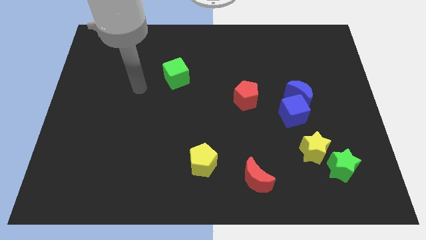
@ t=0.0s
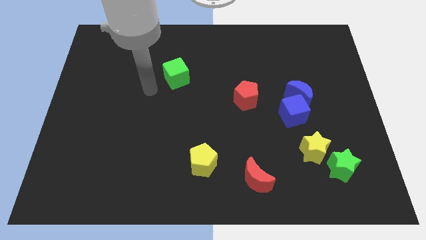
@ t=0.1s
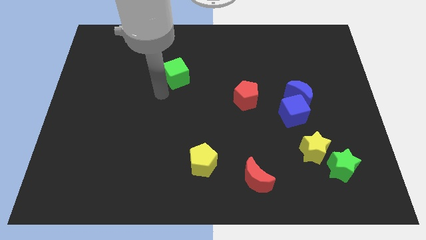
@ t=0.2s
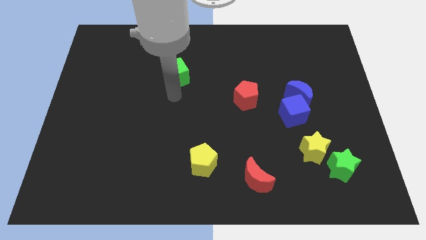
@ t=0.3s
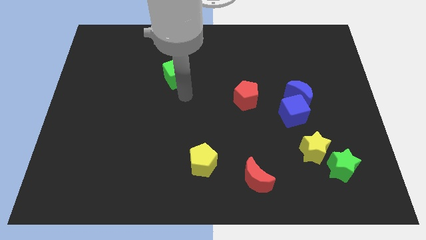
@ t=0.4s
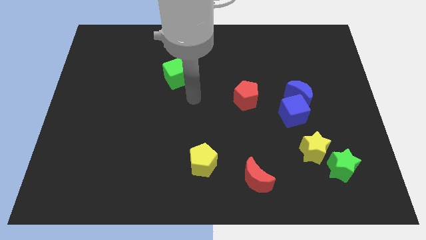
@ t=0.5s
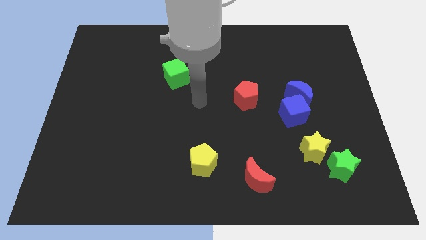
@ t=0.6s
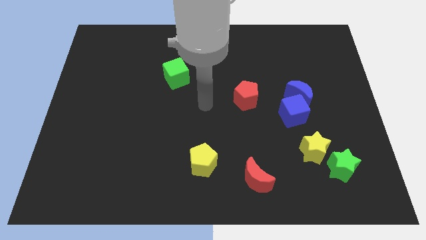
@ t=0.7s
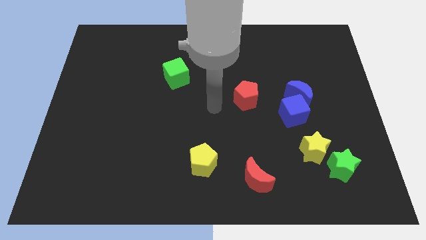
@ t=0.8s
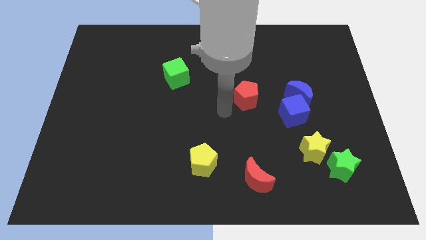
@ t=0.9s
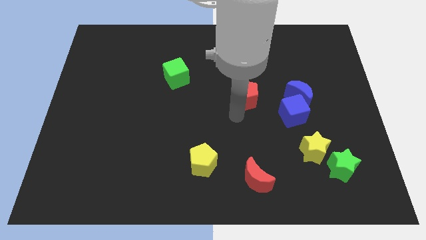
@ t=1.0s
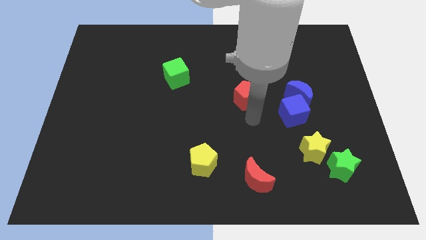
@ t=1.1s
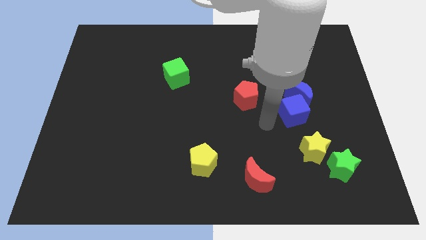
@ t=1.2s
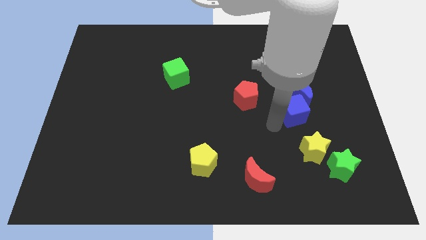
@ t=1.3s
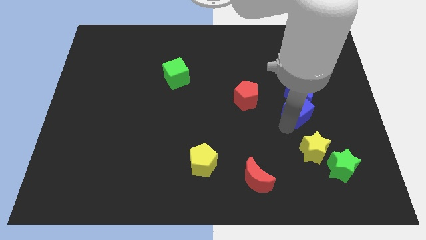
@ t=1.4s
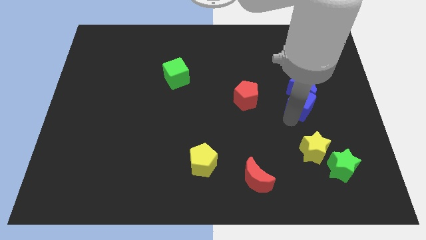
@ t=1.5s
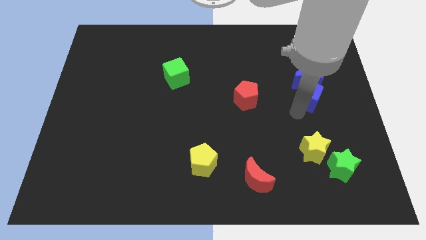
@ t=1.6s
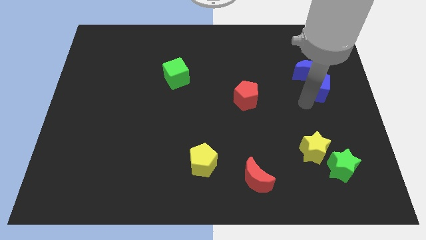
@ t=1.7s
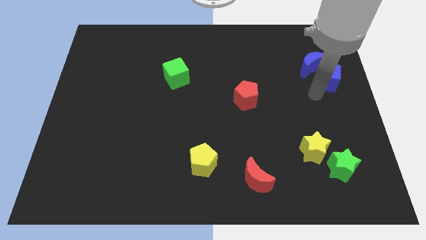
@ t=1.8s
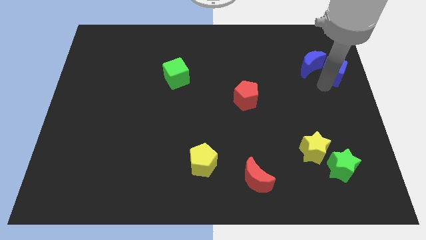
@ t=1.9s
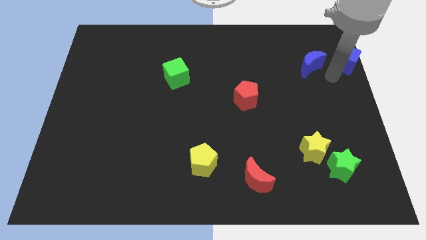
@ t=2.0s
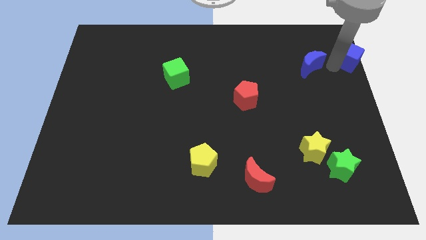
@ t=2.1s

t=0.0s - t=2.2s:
pull the blue moon apart from the blue cube

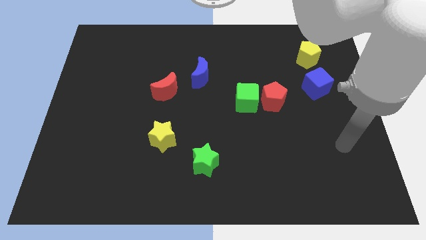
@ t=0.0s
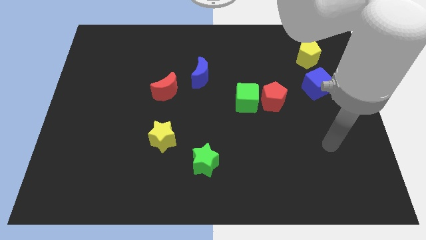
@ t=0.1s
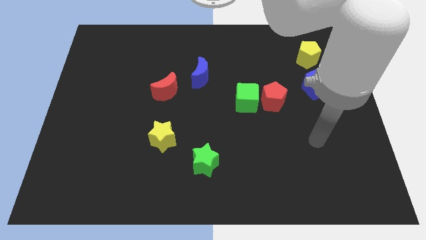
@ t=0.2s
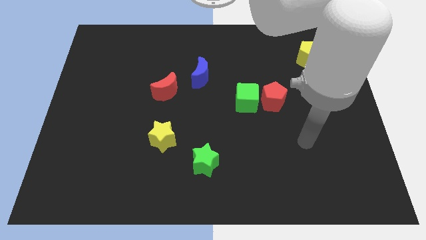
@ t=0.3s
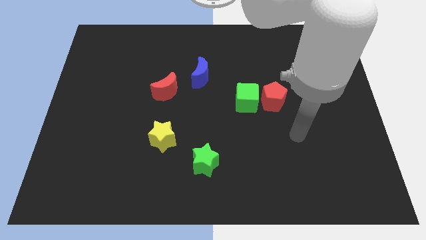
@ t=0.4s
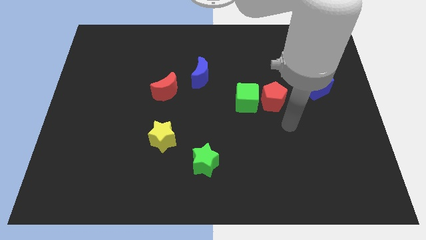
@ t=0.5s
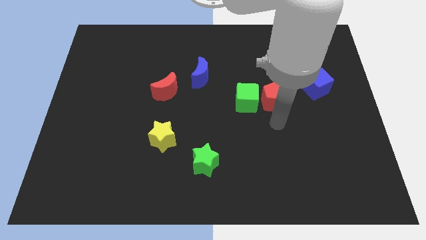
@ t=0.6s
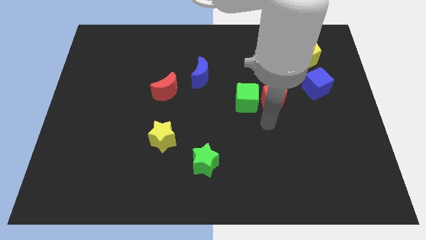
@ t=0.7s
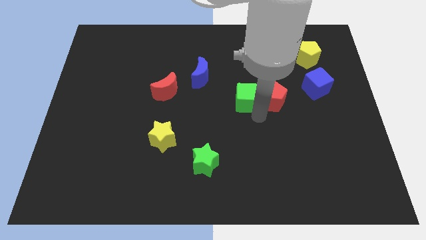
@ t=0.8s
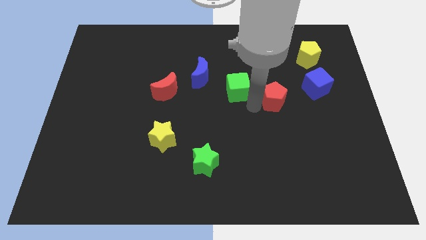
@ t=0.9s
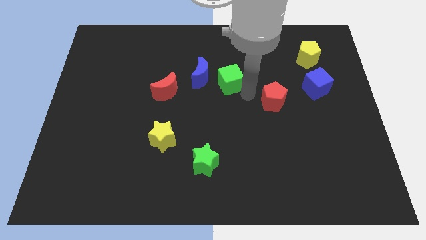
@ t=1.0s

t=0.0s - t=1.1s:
move the red pentagon away from the green cube

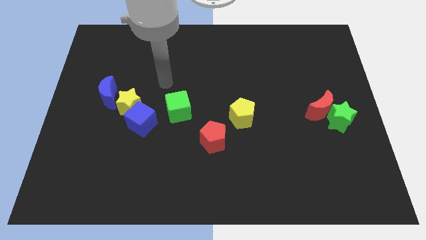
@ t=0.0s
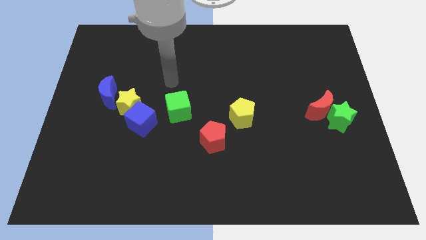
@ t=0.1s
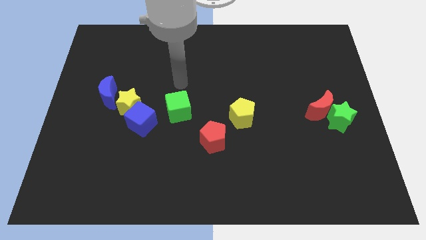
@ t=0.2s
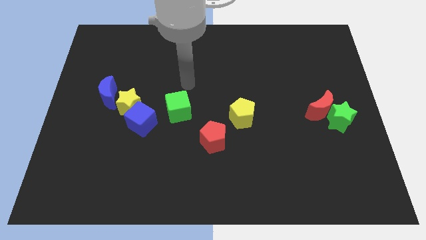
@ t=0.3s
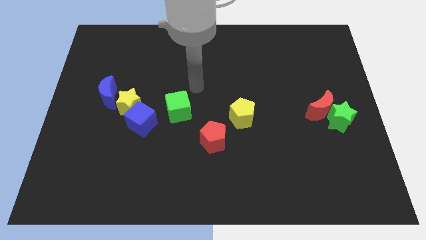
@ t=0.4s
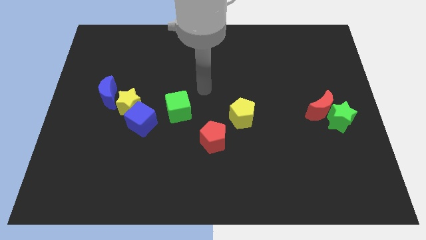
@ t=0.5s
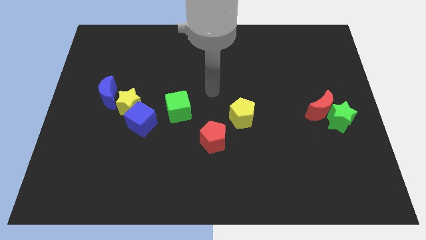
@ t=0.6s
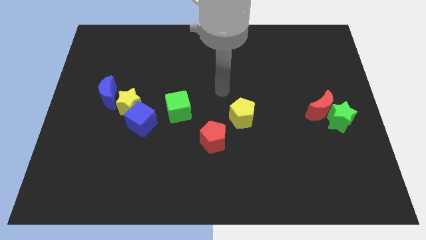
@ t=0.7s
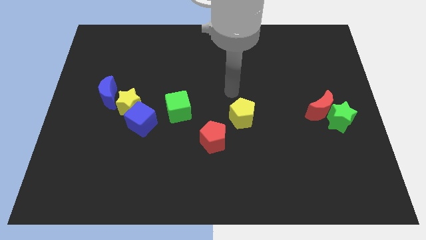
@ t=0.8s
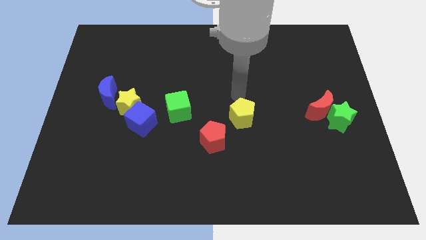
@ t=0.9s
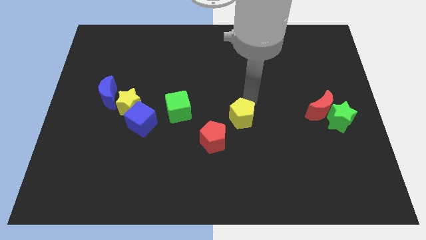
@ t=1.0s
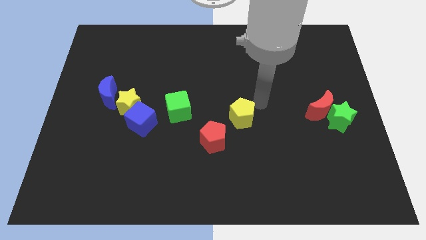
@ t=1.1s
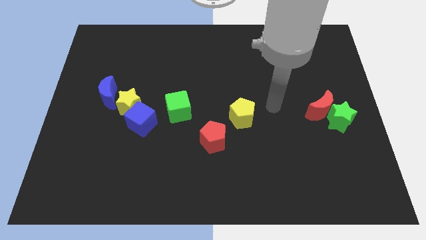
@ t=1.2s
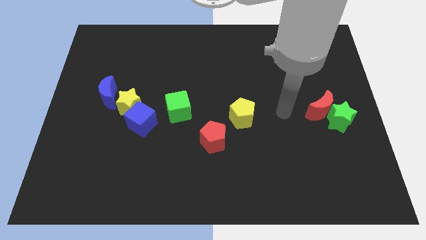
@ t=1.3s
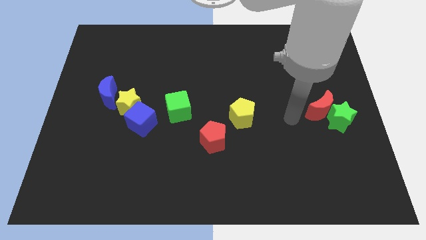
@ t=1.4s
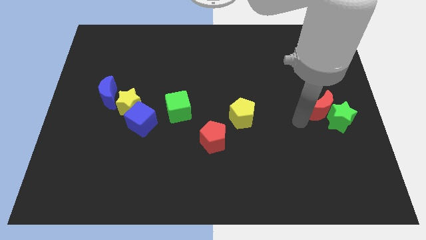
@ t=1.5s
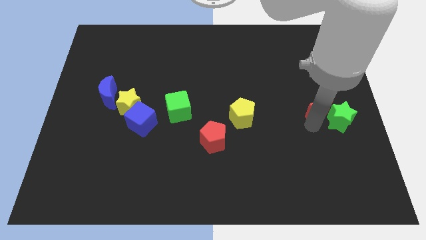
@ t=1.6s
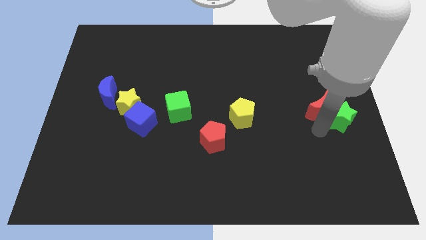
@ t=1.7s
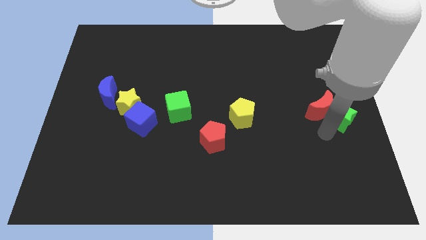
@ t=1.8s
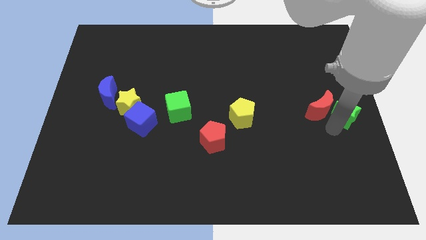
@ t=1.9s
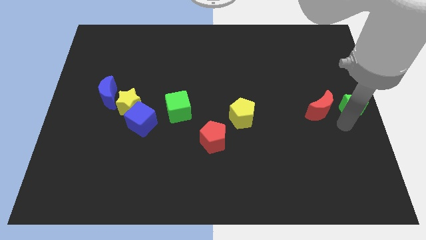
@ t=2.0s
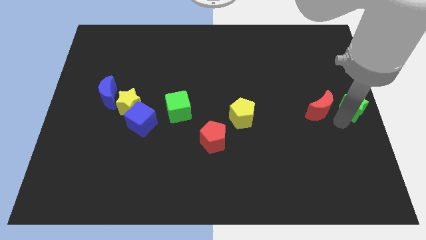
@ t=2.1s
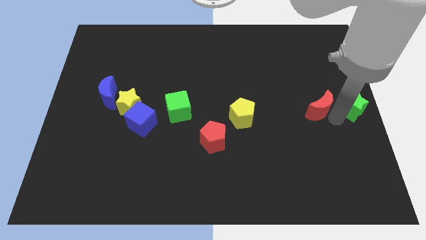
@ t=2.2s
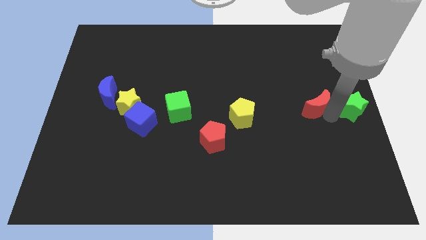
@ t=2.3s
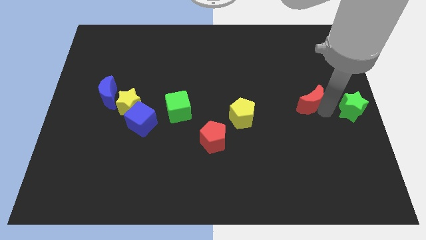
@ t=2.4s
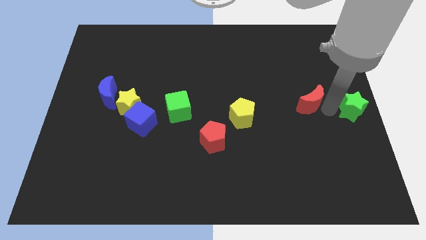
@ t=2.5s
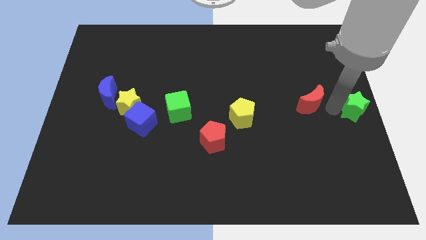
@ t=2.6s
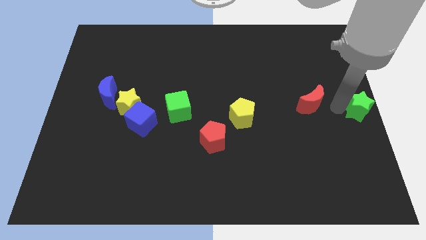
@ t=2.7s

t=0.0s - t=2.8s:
separate the red moon from the green star

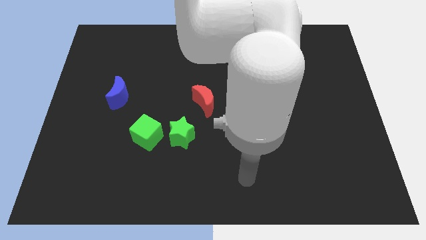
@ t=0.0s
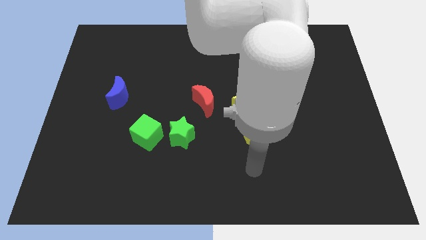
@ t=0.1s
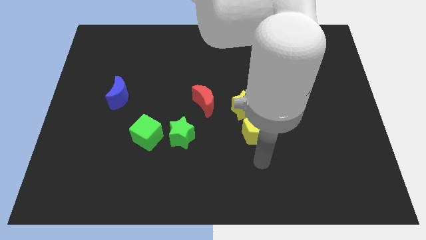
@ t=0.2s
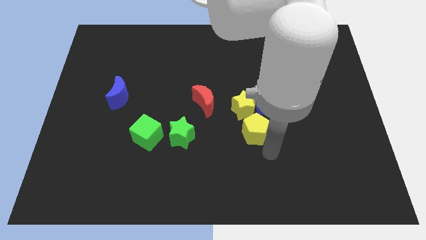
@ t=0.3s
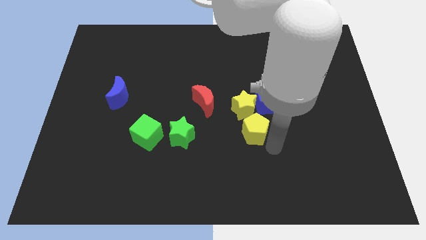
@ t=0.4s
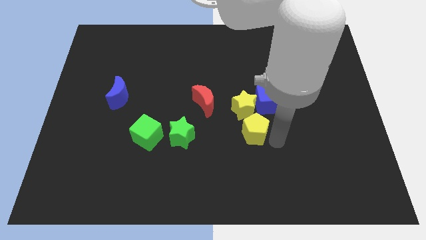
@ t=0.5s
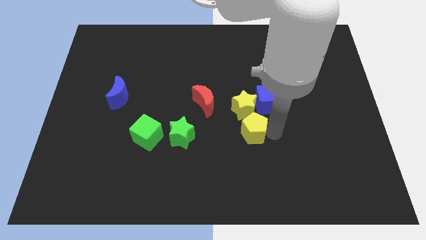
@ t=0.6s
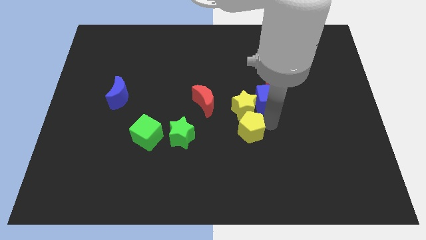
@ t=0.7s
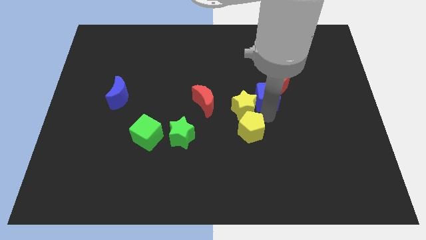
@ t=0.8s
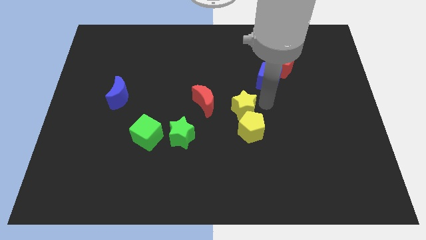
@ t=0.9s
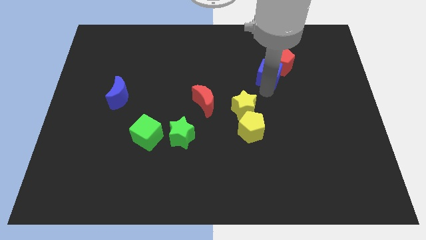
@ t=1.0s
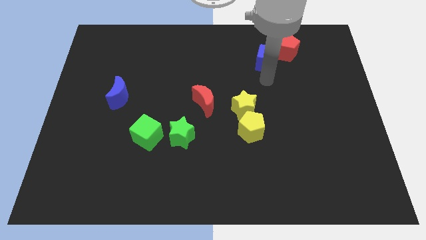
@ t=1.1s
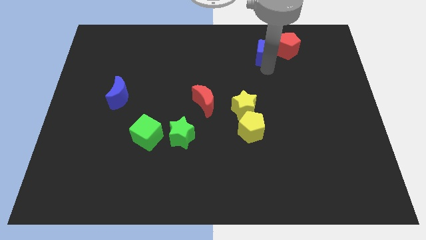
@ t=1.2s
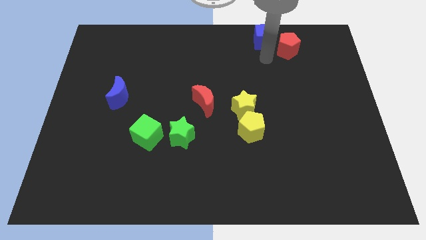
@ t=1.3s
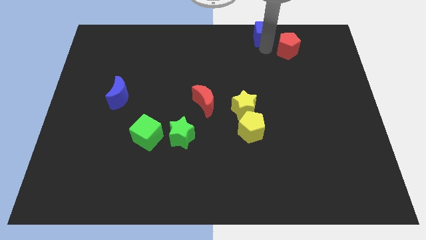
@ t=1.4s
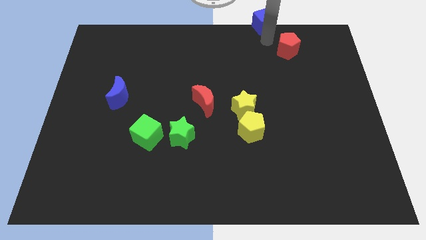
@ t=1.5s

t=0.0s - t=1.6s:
pull the red pentagon apart from the blue cube

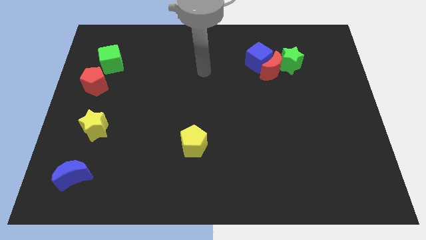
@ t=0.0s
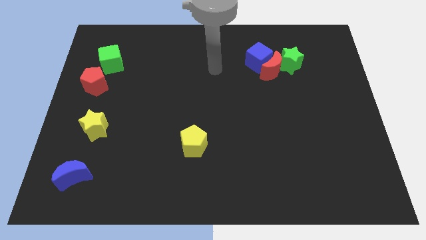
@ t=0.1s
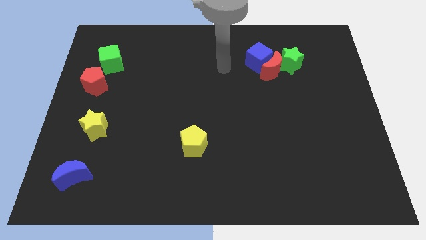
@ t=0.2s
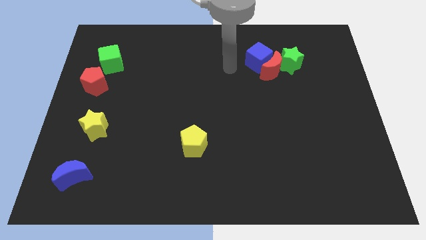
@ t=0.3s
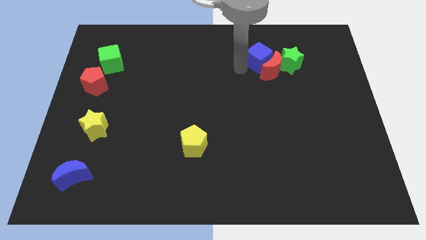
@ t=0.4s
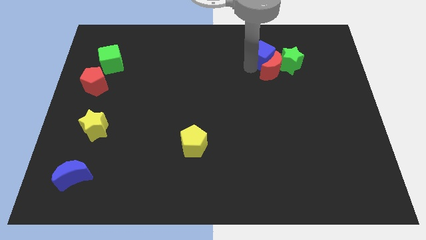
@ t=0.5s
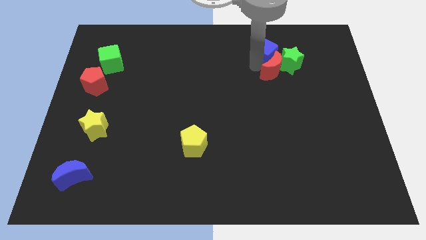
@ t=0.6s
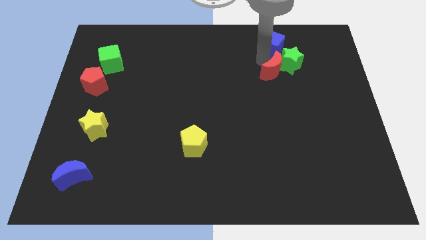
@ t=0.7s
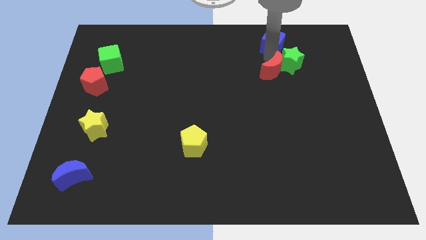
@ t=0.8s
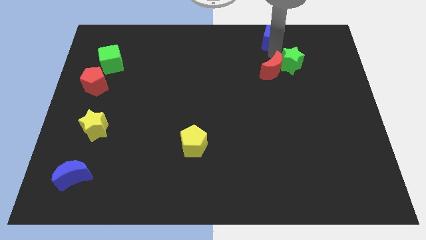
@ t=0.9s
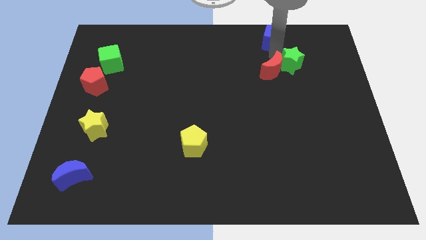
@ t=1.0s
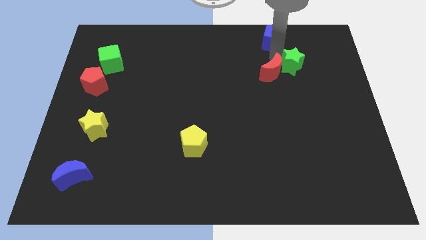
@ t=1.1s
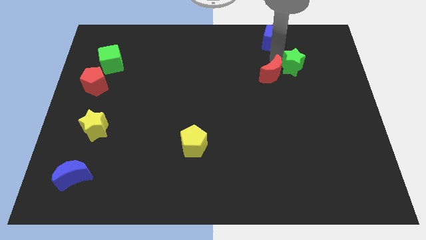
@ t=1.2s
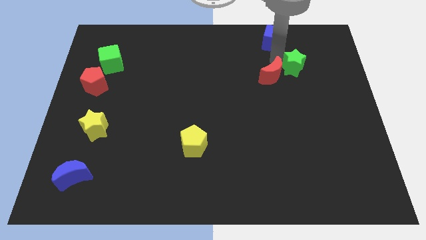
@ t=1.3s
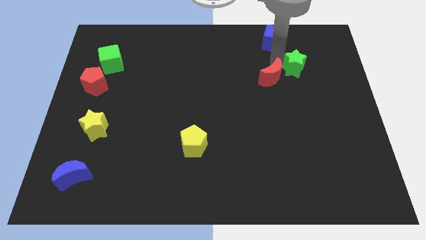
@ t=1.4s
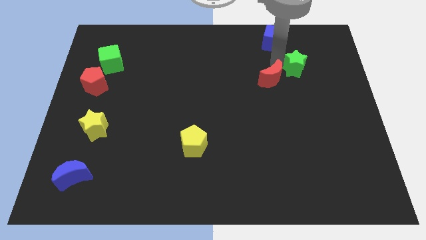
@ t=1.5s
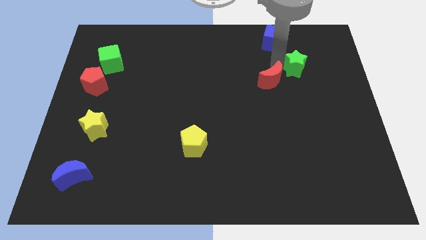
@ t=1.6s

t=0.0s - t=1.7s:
pull the red moon apart from the blue cube and green star
